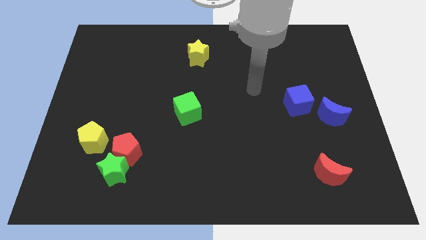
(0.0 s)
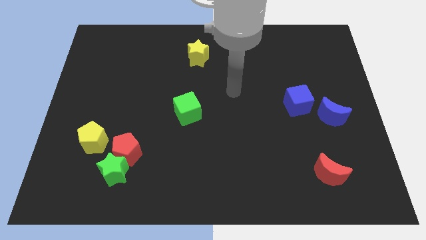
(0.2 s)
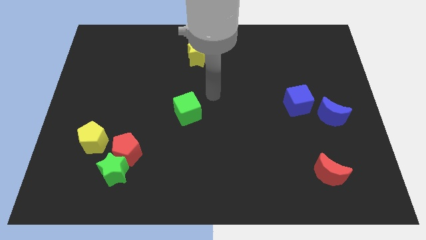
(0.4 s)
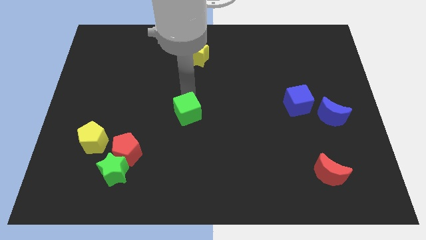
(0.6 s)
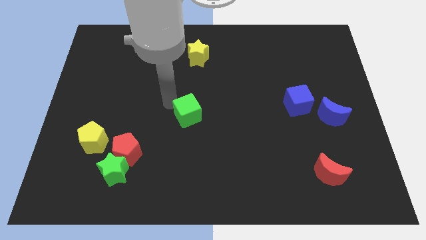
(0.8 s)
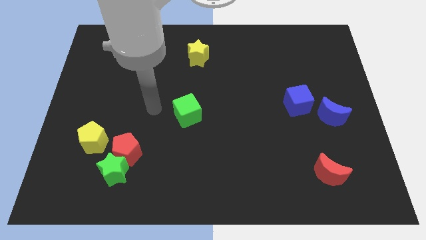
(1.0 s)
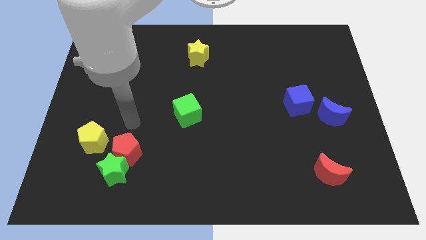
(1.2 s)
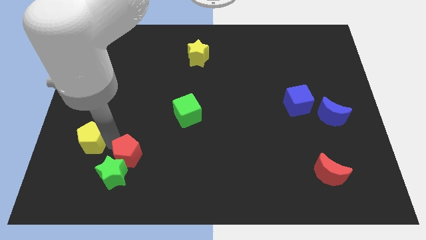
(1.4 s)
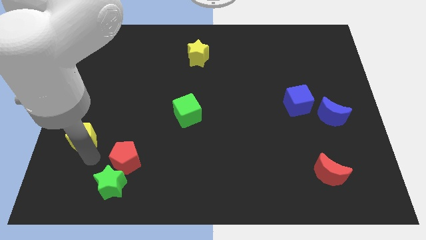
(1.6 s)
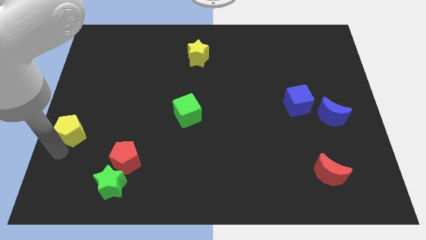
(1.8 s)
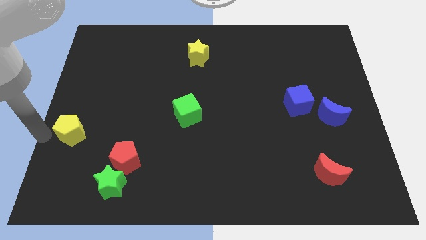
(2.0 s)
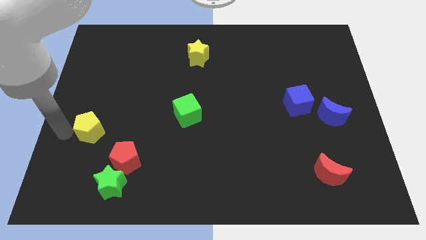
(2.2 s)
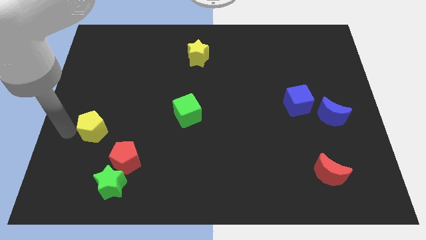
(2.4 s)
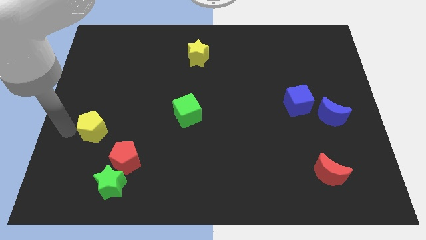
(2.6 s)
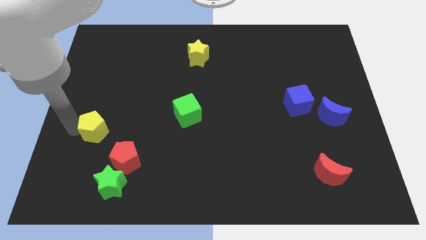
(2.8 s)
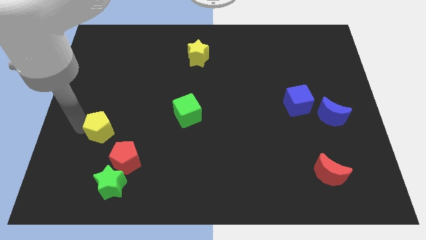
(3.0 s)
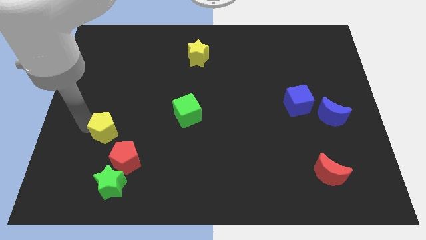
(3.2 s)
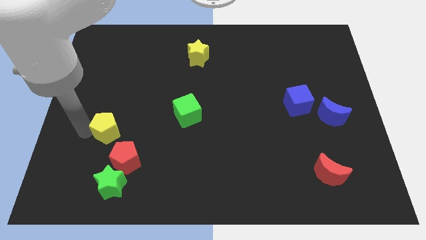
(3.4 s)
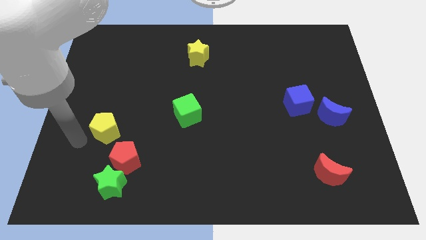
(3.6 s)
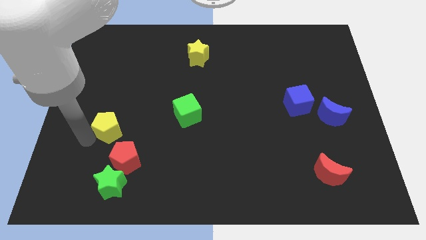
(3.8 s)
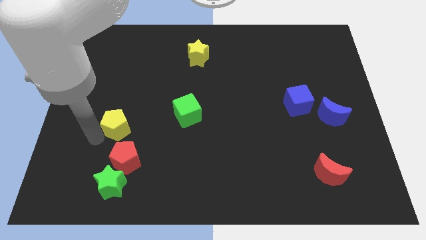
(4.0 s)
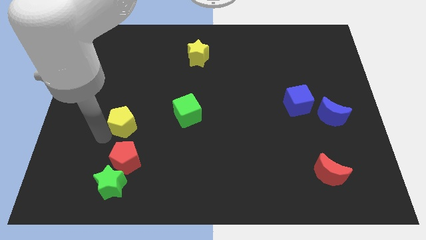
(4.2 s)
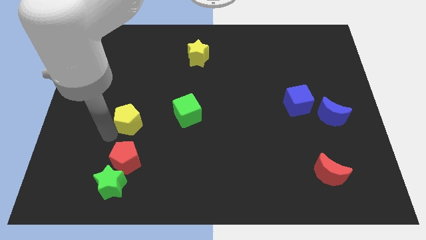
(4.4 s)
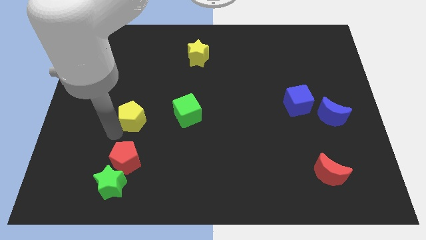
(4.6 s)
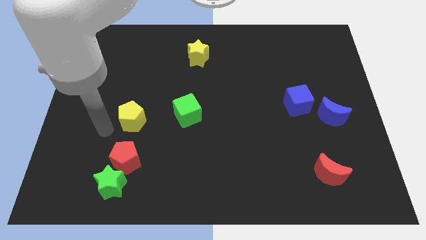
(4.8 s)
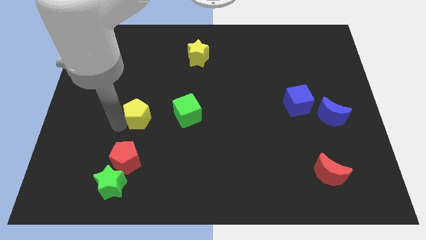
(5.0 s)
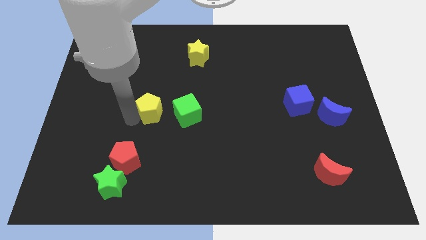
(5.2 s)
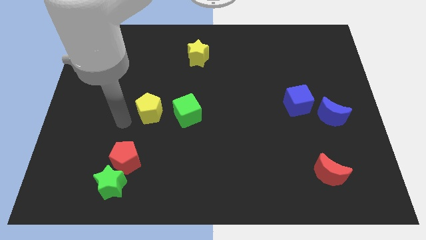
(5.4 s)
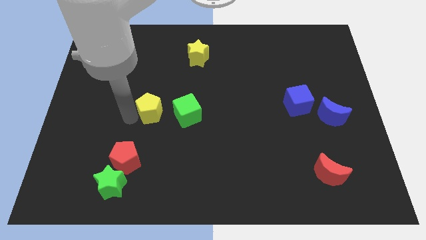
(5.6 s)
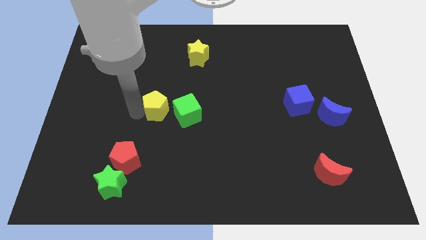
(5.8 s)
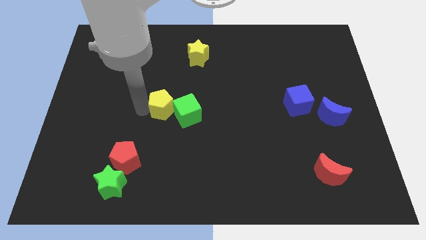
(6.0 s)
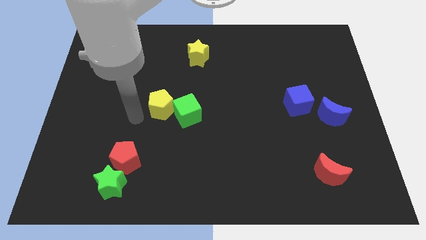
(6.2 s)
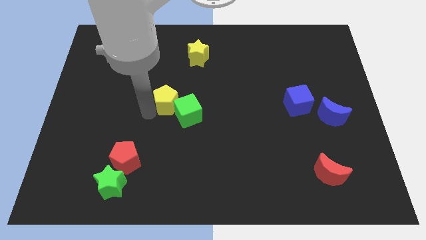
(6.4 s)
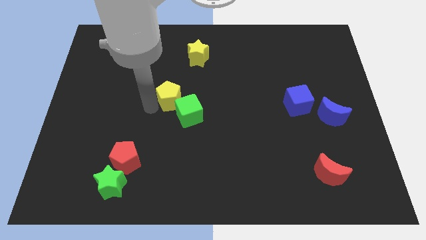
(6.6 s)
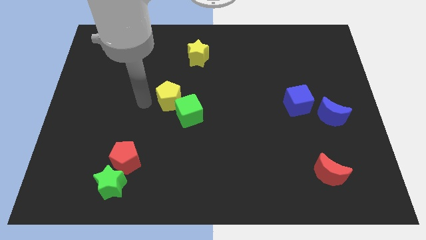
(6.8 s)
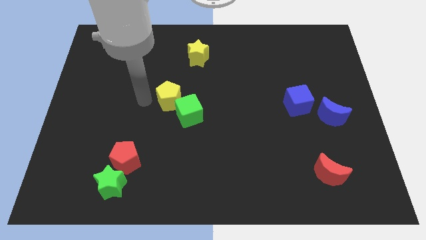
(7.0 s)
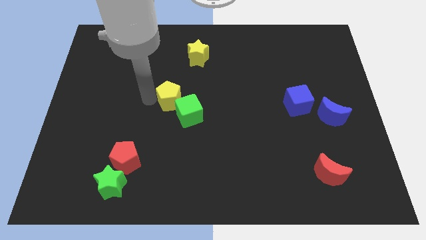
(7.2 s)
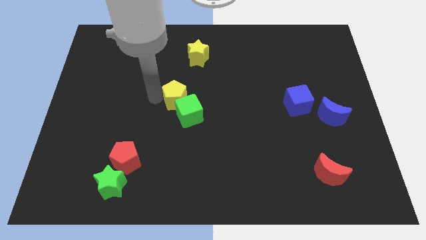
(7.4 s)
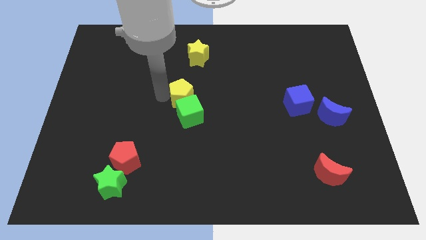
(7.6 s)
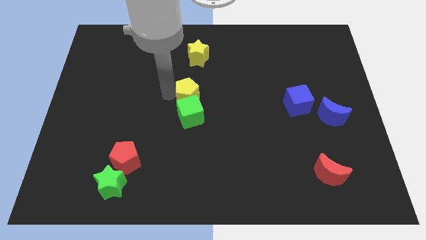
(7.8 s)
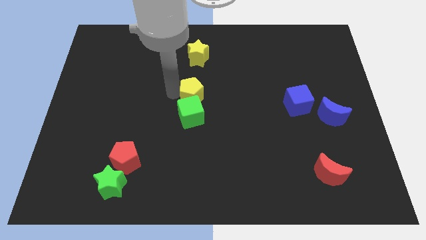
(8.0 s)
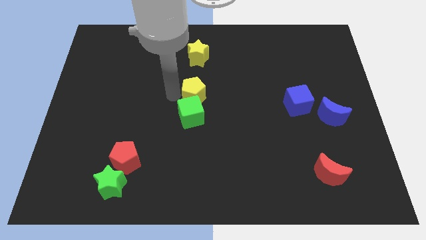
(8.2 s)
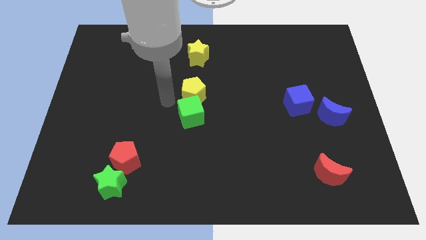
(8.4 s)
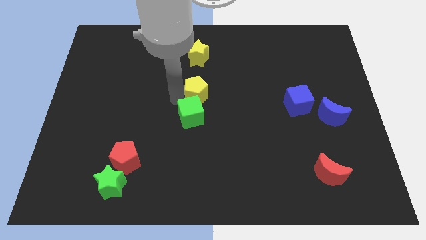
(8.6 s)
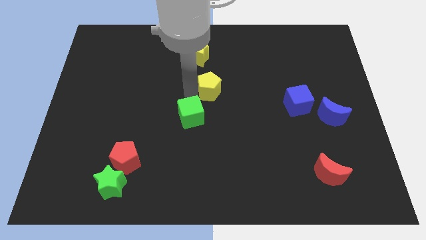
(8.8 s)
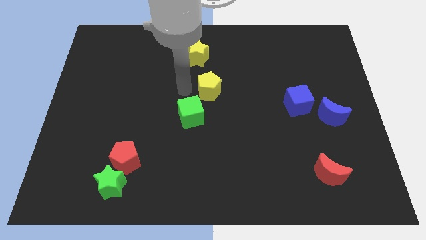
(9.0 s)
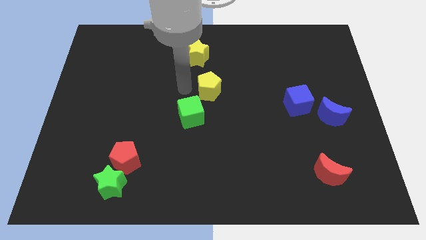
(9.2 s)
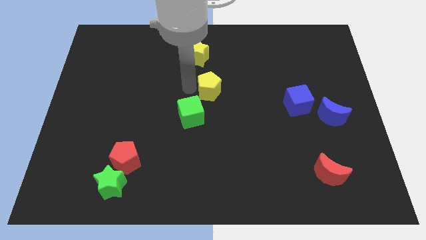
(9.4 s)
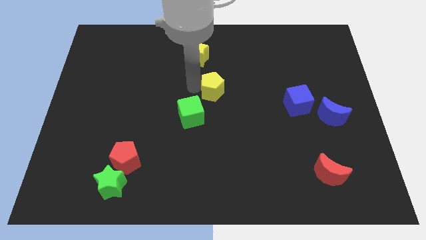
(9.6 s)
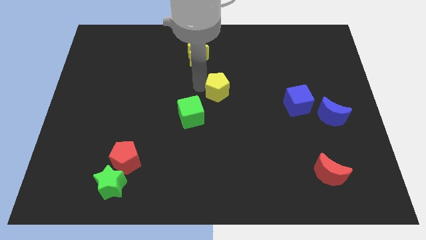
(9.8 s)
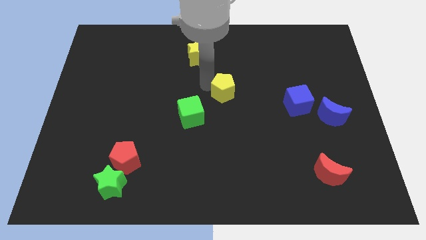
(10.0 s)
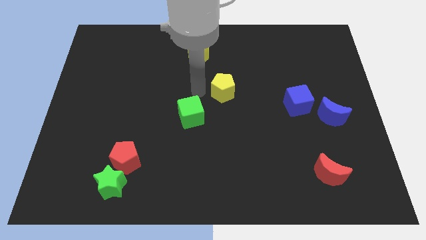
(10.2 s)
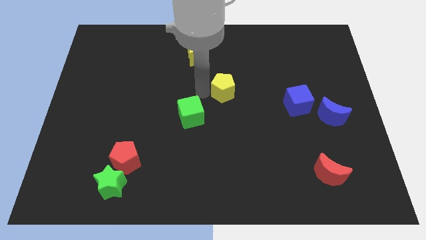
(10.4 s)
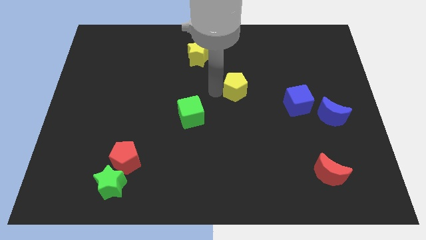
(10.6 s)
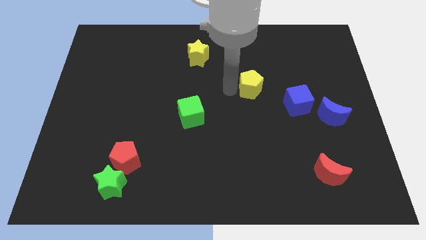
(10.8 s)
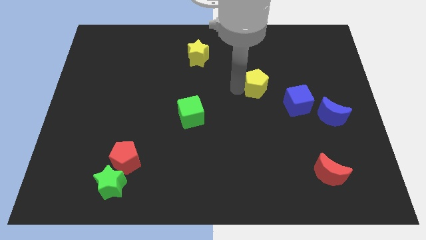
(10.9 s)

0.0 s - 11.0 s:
slide the yellow pentagon to the top left side of the blue cube
